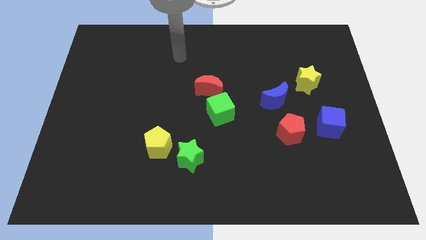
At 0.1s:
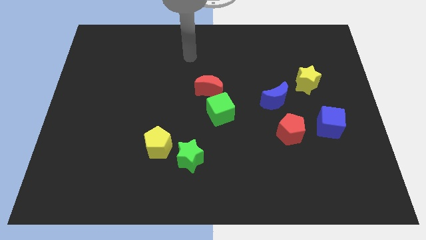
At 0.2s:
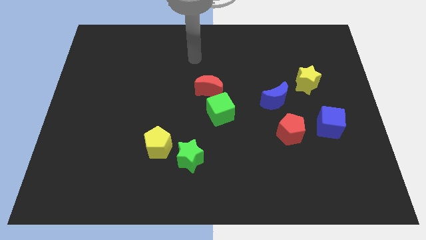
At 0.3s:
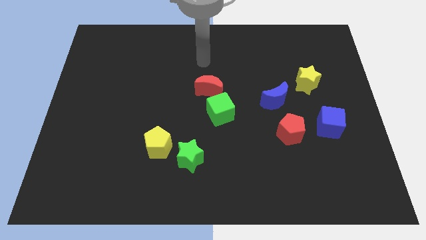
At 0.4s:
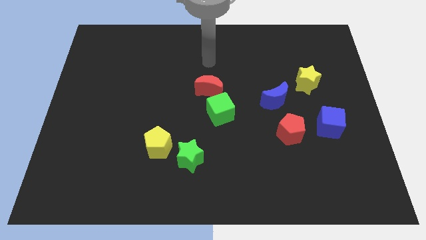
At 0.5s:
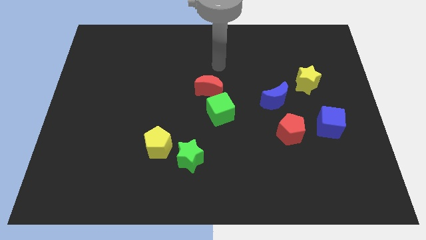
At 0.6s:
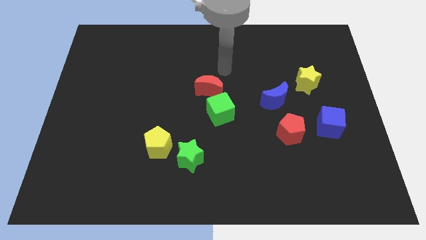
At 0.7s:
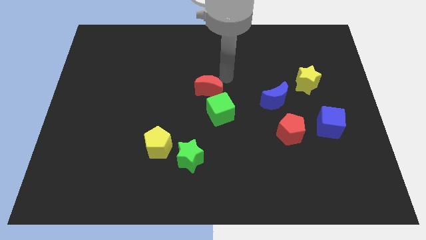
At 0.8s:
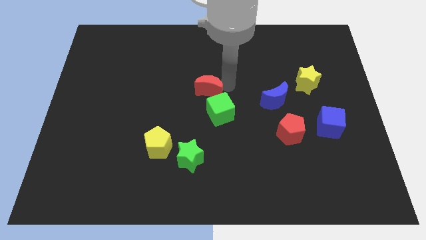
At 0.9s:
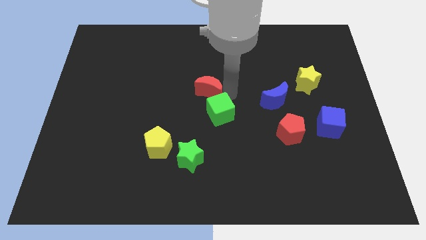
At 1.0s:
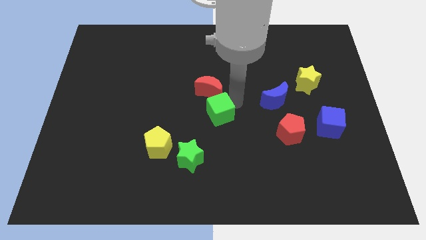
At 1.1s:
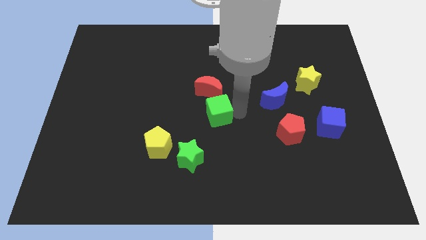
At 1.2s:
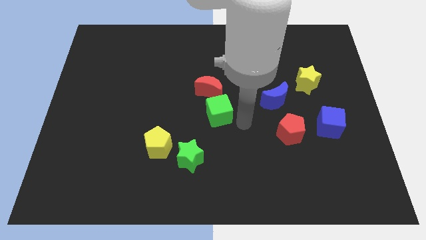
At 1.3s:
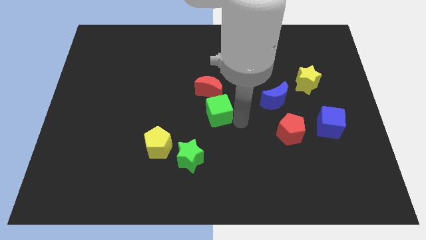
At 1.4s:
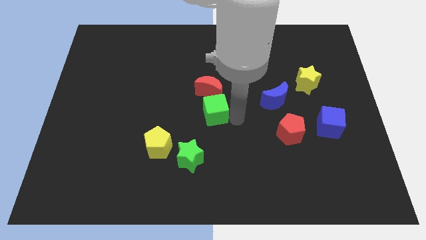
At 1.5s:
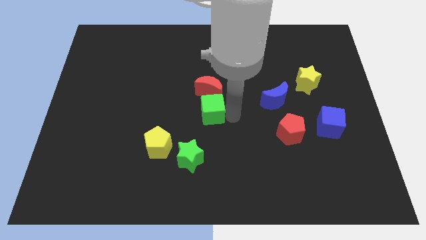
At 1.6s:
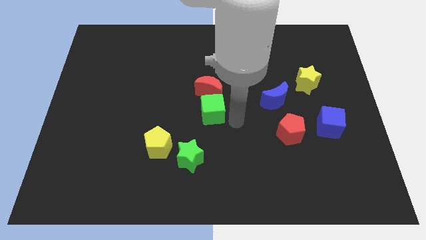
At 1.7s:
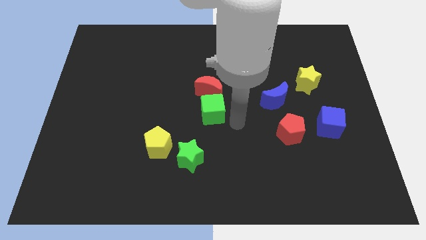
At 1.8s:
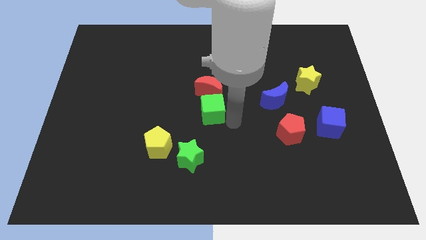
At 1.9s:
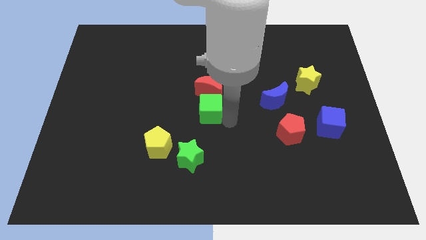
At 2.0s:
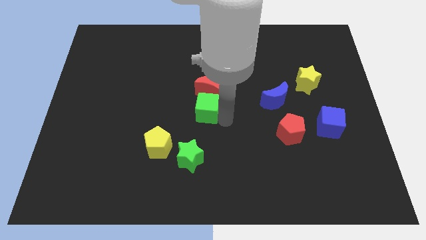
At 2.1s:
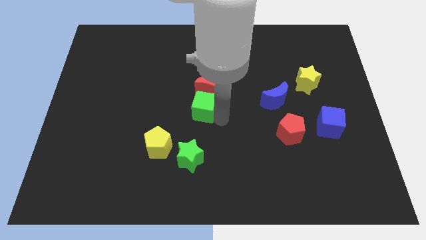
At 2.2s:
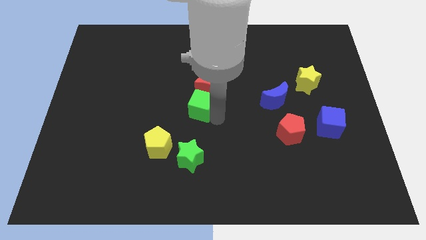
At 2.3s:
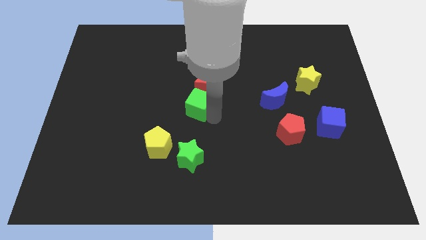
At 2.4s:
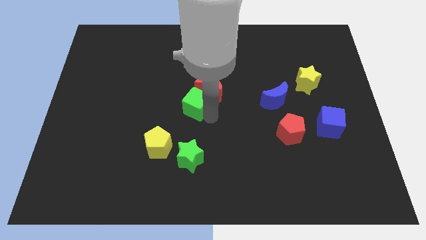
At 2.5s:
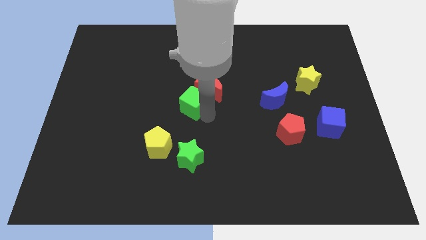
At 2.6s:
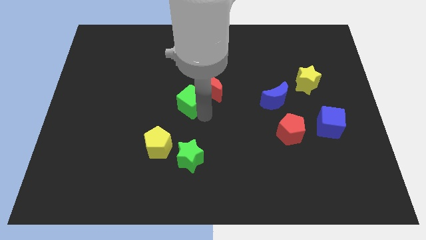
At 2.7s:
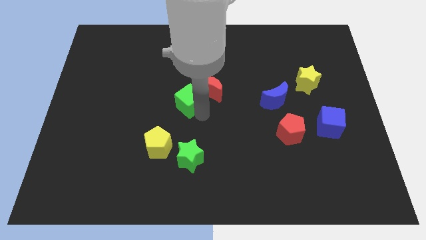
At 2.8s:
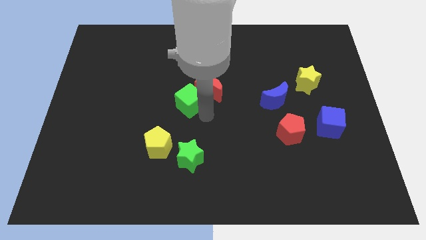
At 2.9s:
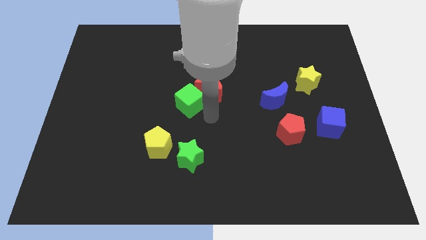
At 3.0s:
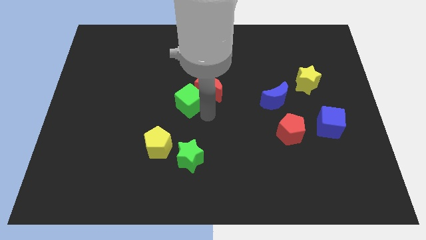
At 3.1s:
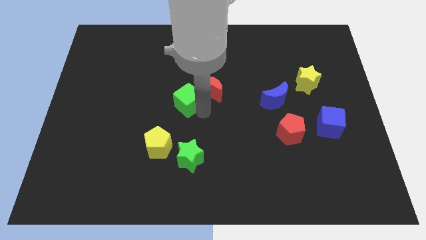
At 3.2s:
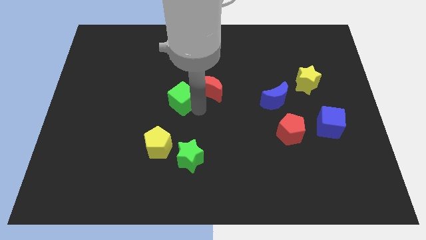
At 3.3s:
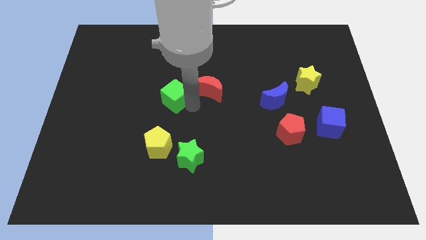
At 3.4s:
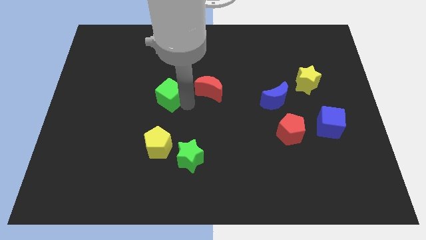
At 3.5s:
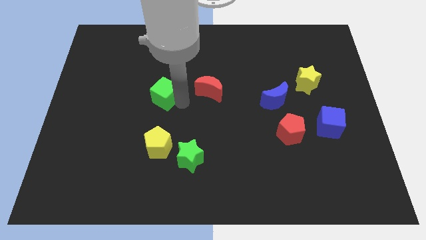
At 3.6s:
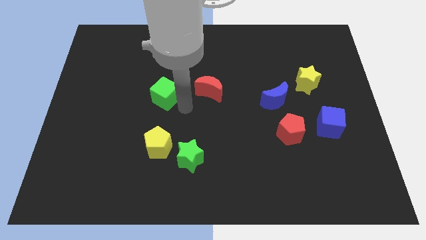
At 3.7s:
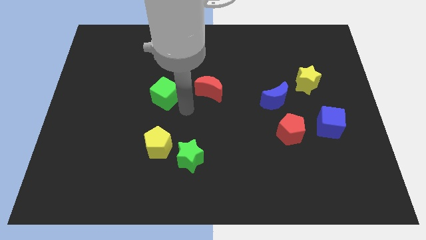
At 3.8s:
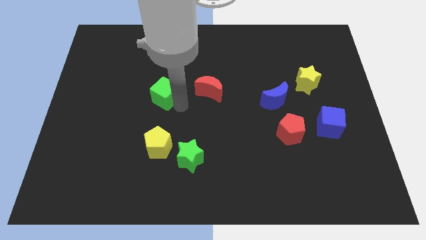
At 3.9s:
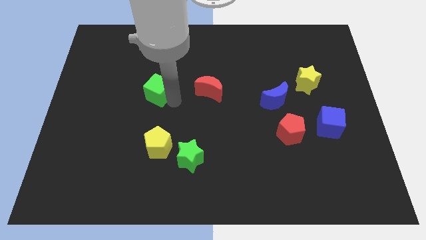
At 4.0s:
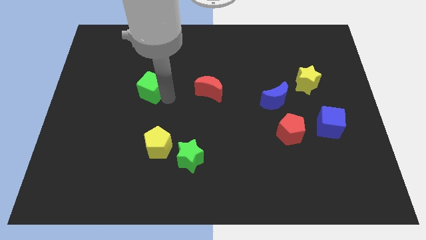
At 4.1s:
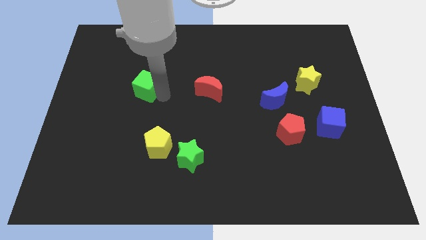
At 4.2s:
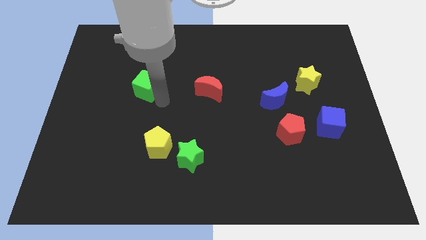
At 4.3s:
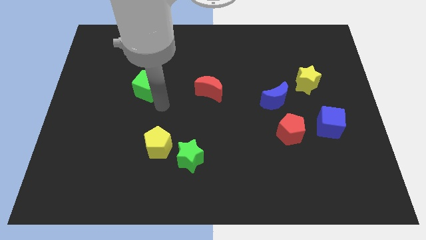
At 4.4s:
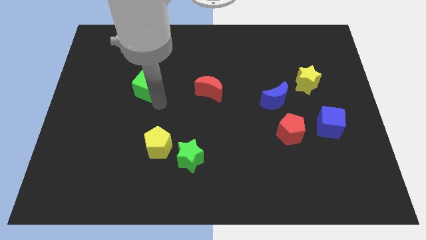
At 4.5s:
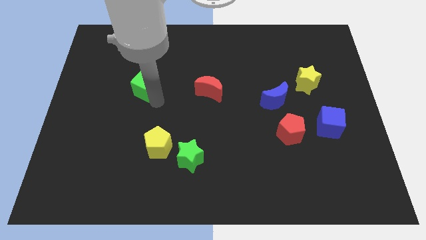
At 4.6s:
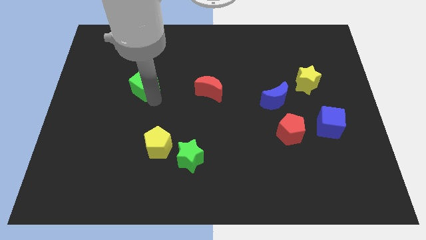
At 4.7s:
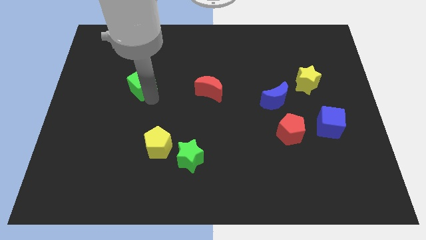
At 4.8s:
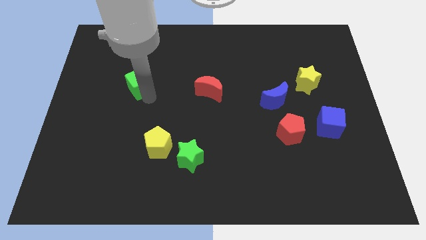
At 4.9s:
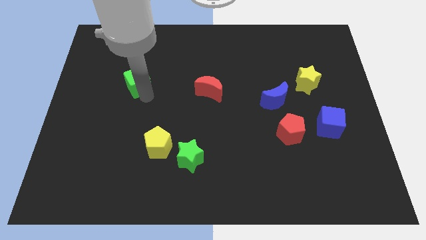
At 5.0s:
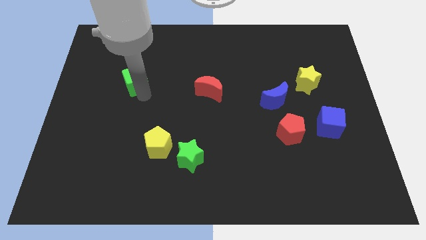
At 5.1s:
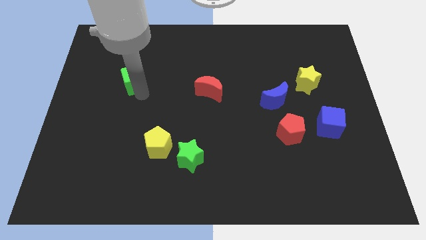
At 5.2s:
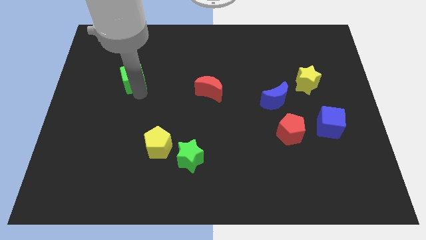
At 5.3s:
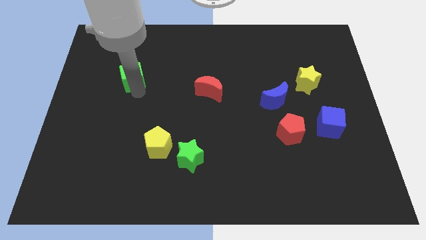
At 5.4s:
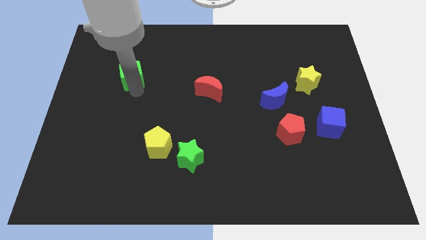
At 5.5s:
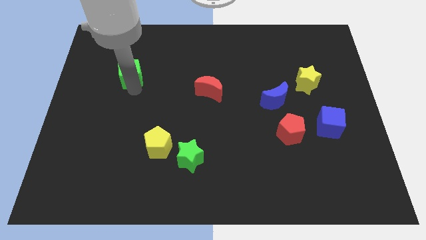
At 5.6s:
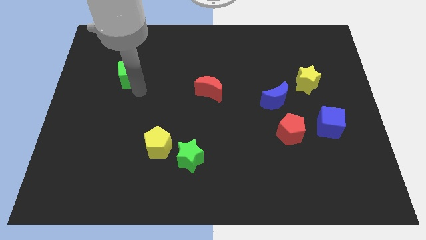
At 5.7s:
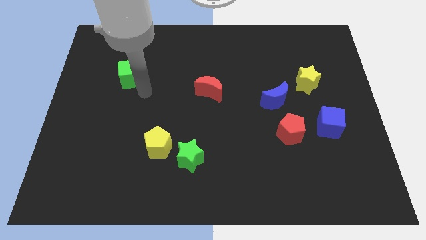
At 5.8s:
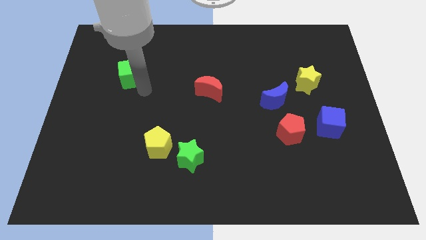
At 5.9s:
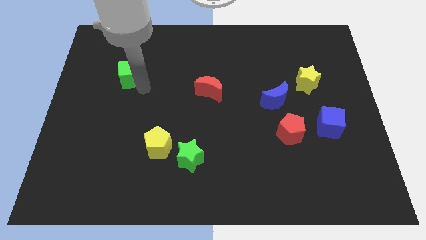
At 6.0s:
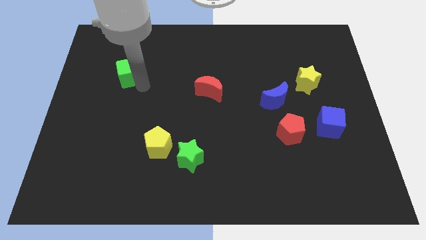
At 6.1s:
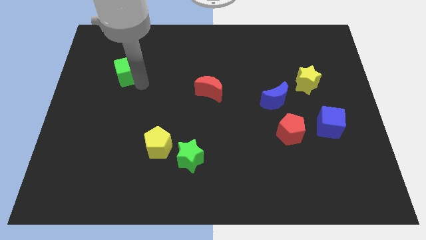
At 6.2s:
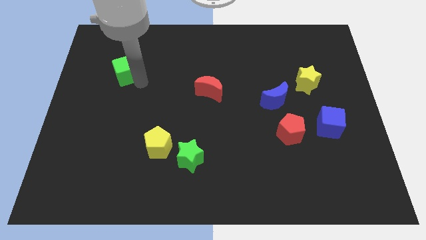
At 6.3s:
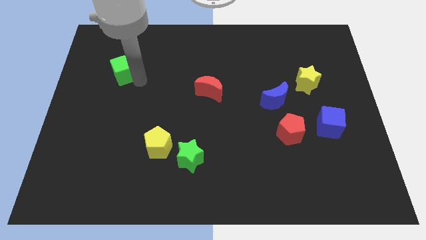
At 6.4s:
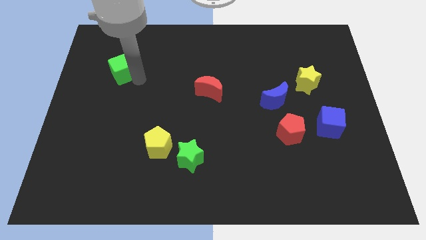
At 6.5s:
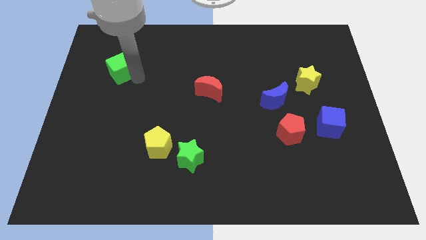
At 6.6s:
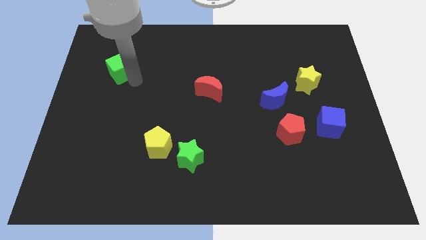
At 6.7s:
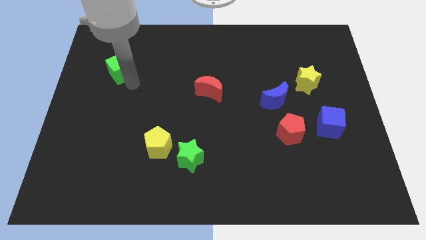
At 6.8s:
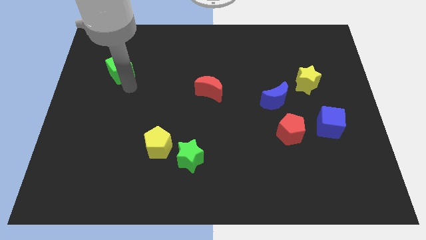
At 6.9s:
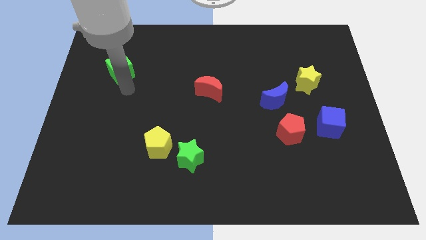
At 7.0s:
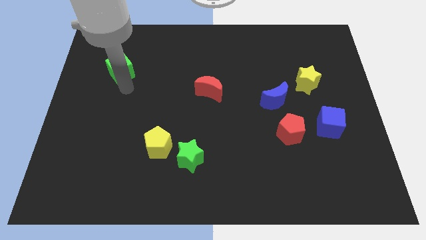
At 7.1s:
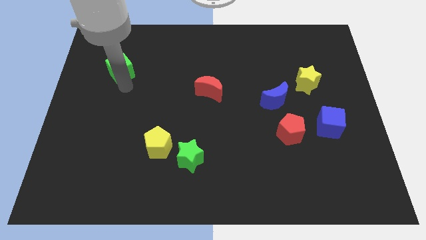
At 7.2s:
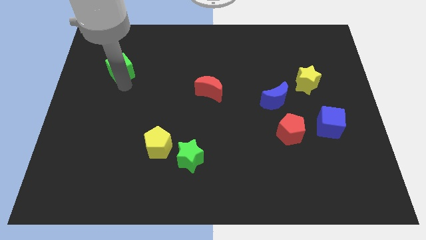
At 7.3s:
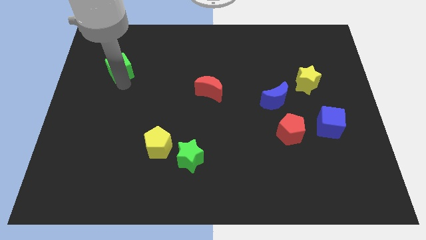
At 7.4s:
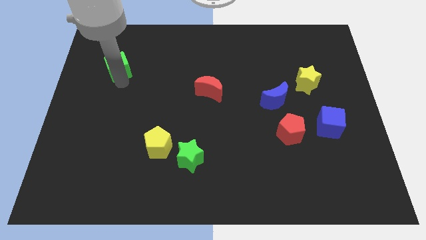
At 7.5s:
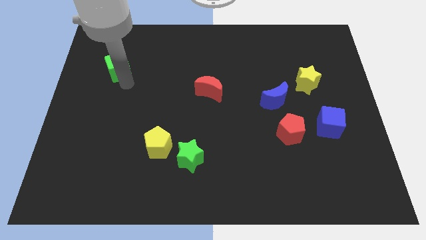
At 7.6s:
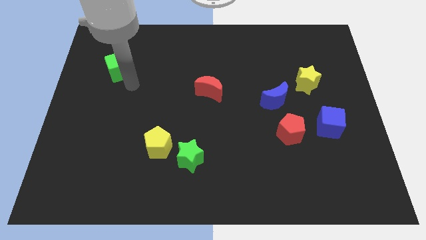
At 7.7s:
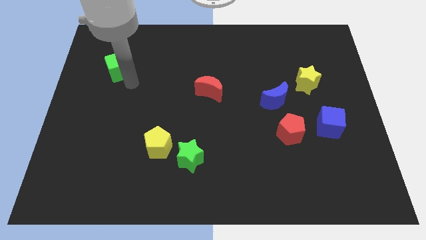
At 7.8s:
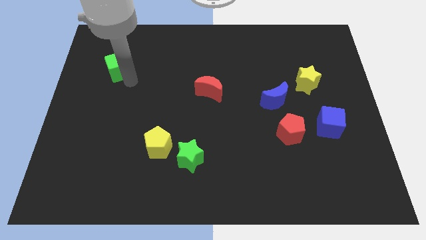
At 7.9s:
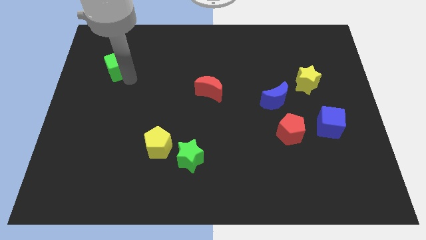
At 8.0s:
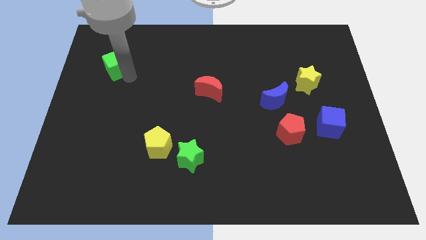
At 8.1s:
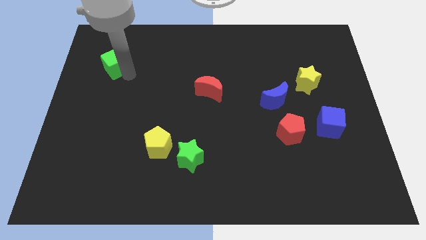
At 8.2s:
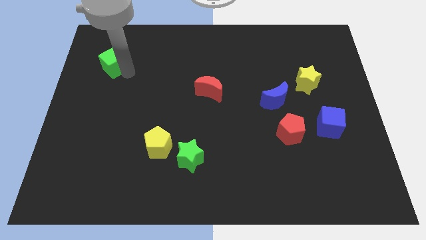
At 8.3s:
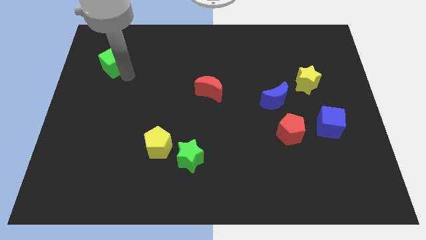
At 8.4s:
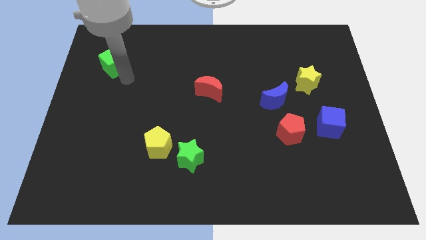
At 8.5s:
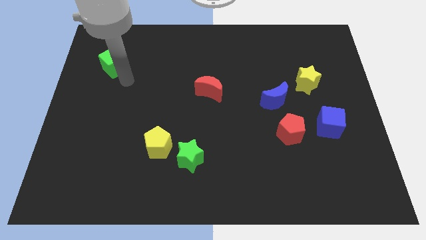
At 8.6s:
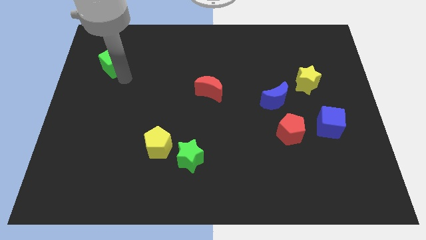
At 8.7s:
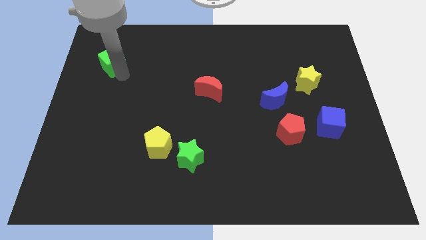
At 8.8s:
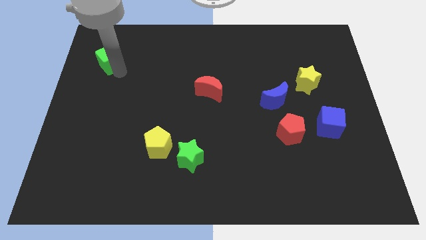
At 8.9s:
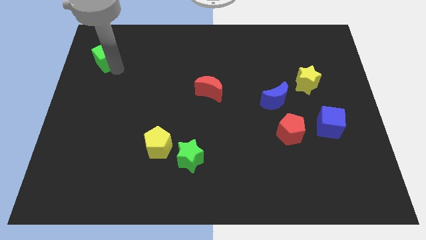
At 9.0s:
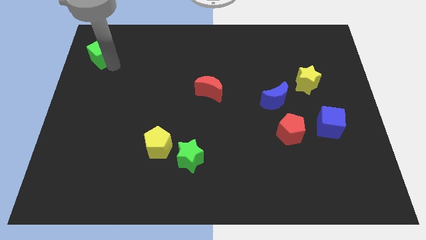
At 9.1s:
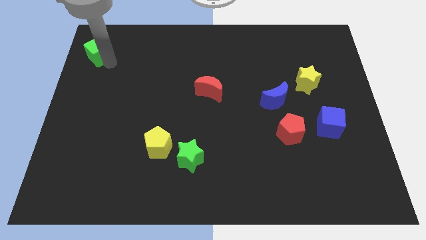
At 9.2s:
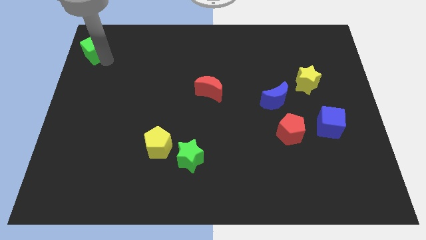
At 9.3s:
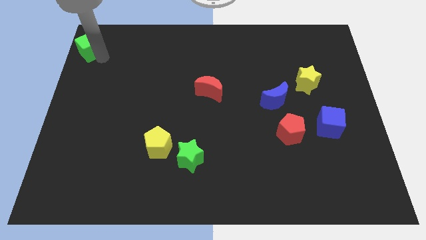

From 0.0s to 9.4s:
slide the green cube to the top left
